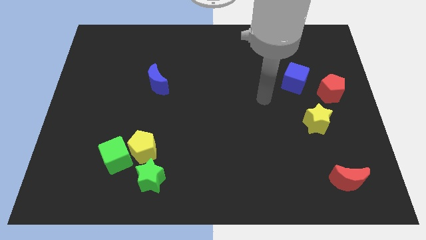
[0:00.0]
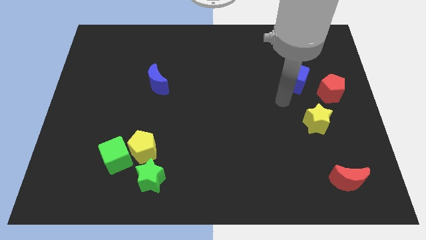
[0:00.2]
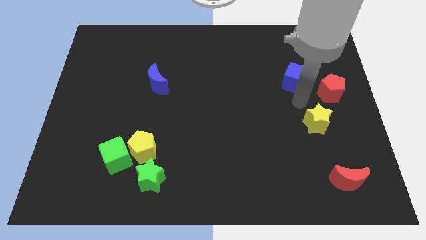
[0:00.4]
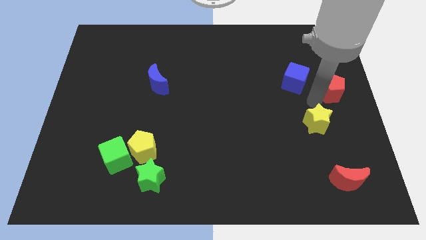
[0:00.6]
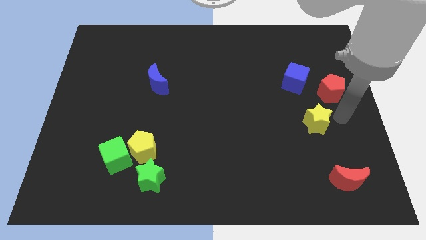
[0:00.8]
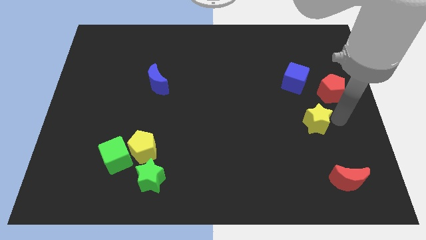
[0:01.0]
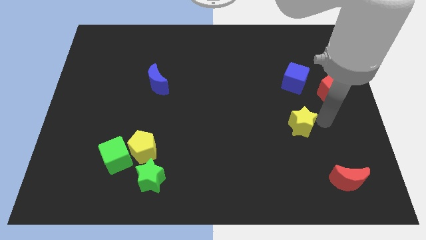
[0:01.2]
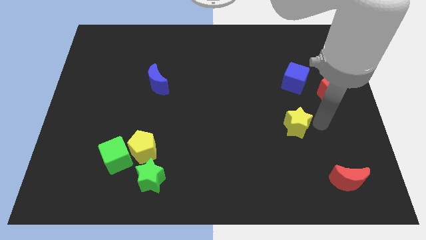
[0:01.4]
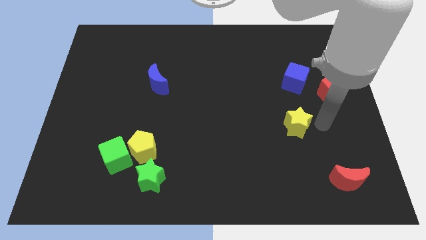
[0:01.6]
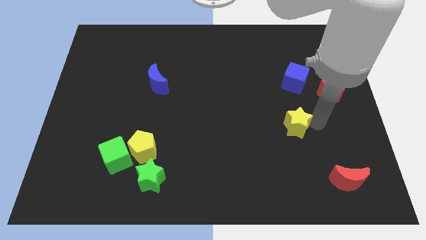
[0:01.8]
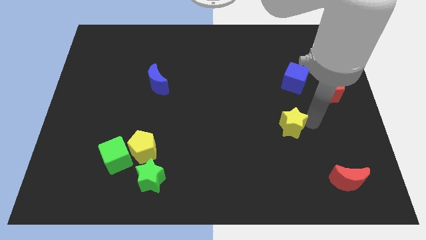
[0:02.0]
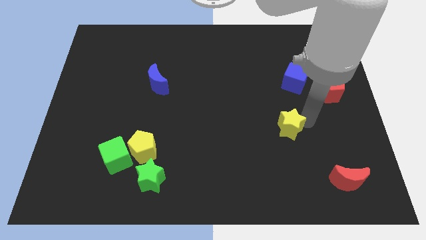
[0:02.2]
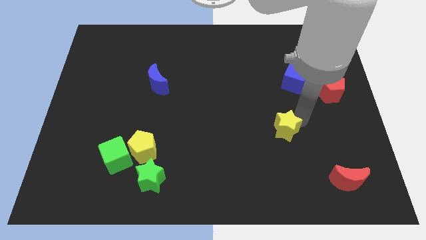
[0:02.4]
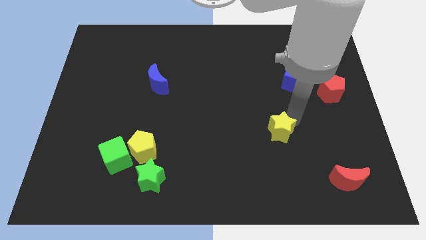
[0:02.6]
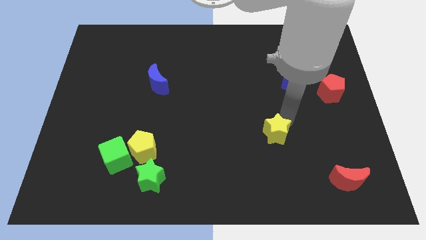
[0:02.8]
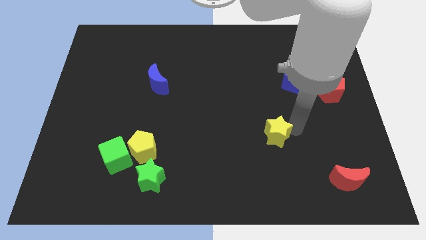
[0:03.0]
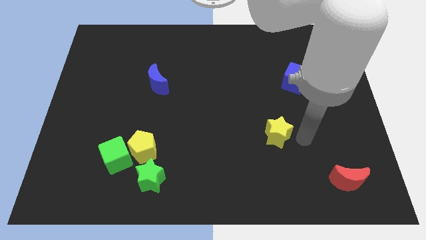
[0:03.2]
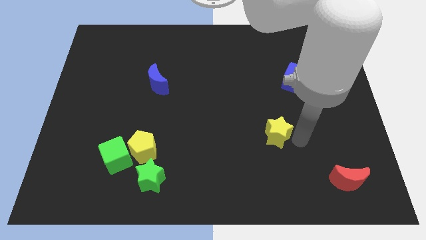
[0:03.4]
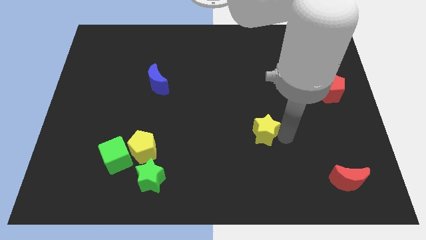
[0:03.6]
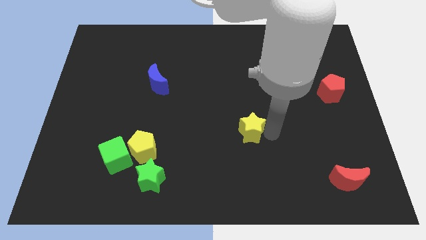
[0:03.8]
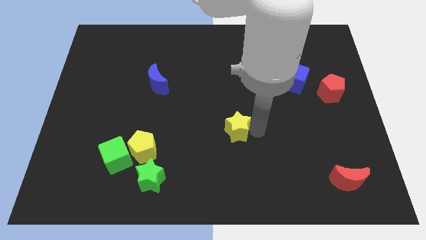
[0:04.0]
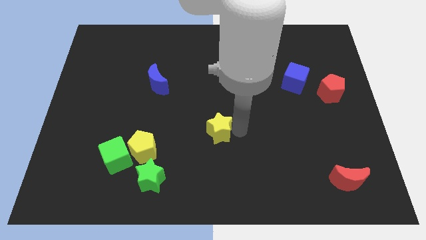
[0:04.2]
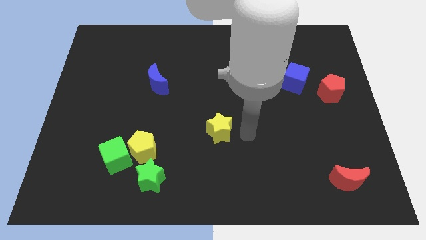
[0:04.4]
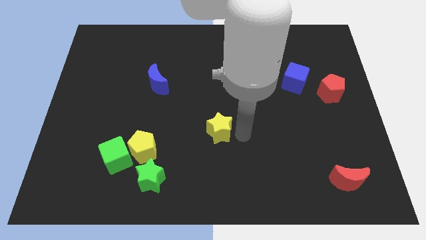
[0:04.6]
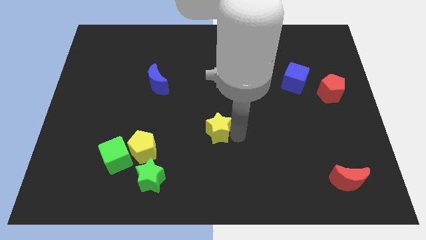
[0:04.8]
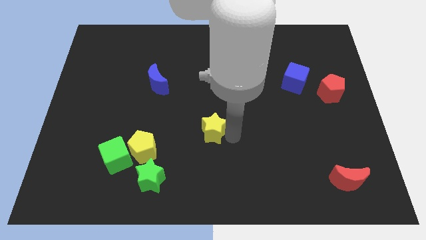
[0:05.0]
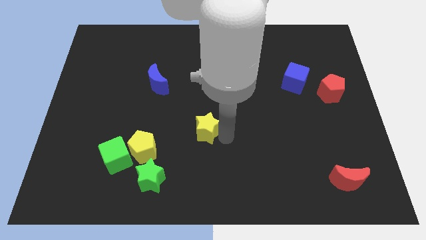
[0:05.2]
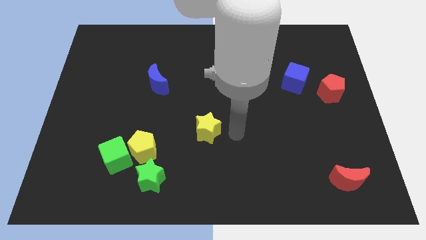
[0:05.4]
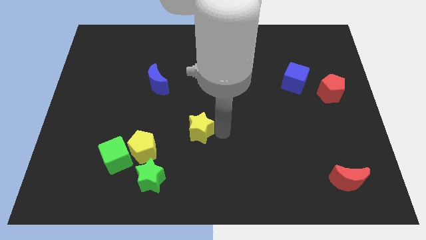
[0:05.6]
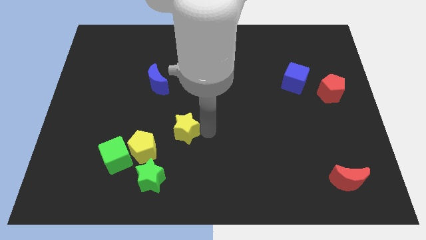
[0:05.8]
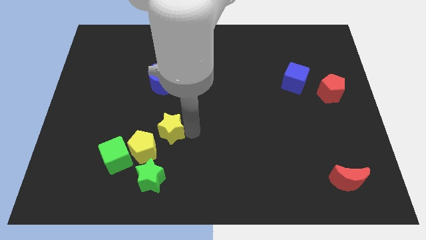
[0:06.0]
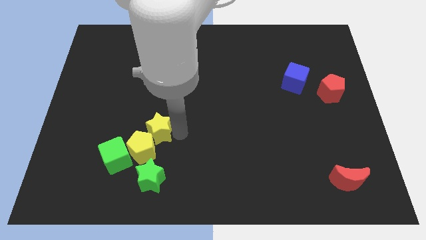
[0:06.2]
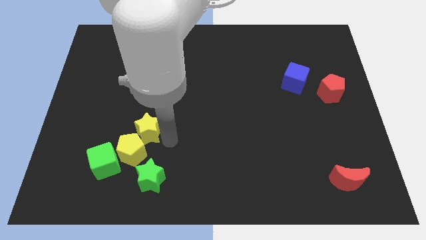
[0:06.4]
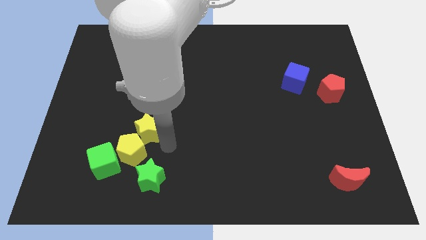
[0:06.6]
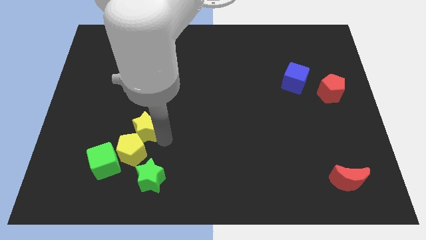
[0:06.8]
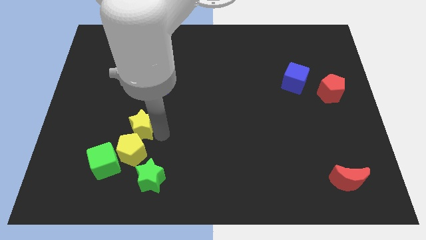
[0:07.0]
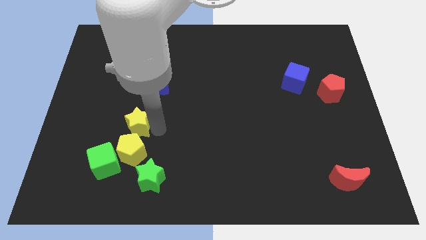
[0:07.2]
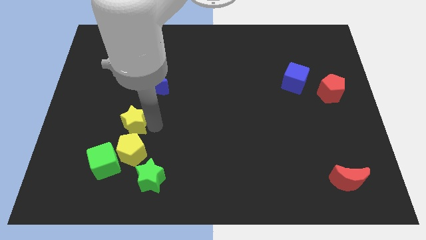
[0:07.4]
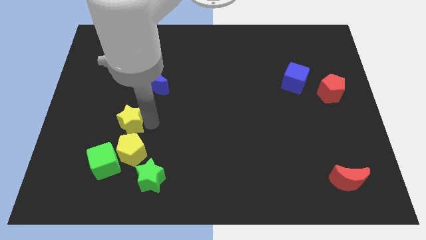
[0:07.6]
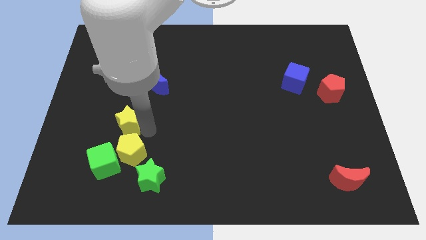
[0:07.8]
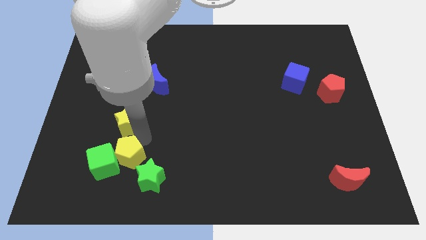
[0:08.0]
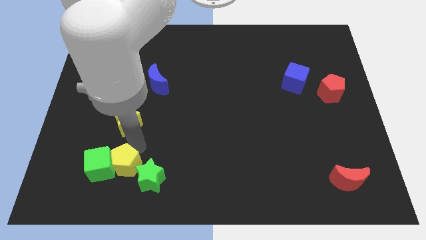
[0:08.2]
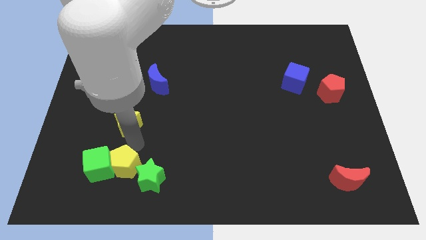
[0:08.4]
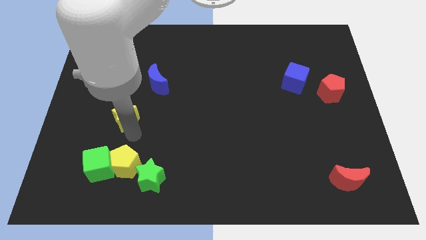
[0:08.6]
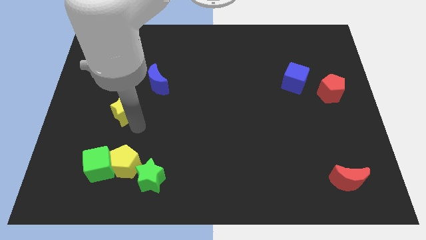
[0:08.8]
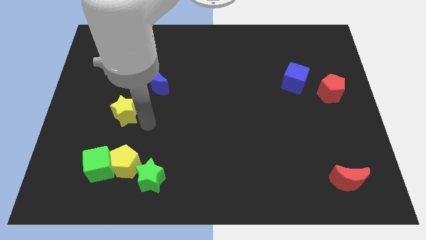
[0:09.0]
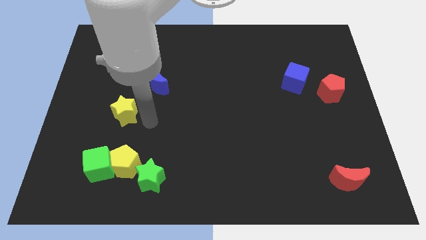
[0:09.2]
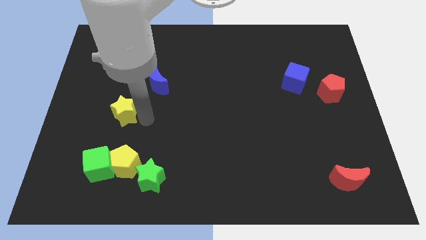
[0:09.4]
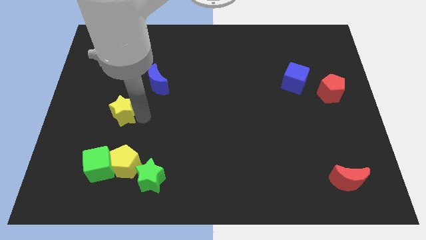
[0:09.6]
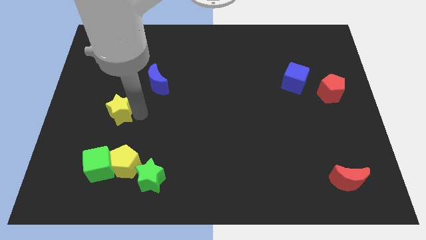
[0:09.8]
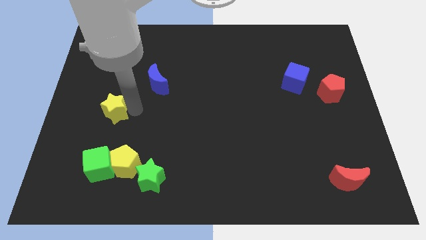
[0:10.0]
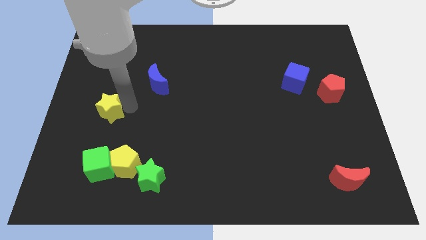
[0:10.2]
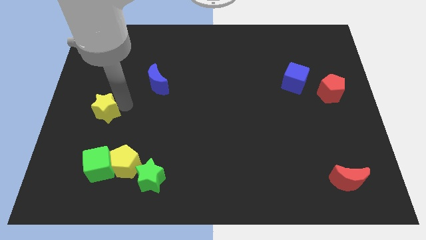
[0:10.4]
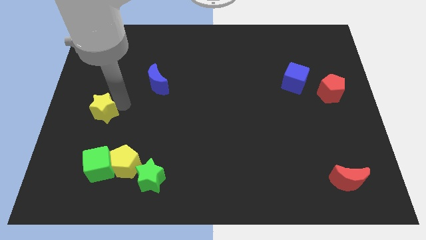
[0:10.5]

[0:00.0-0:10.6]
put the yellow star to the center left

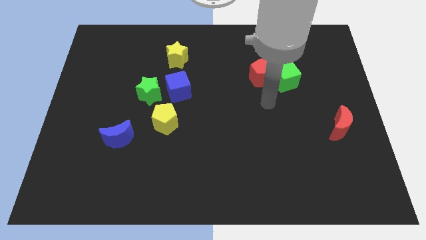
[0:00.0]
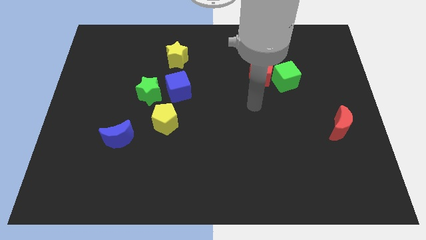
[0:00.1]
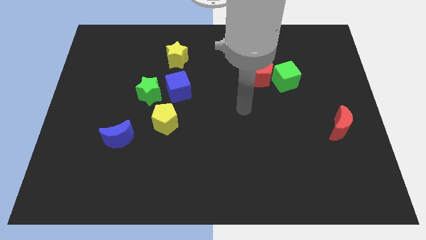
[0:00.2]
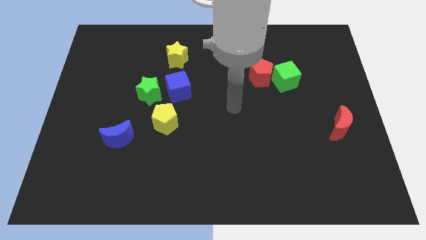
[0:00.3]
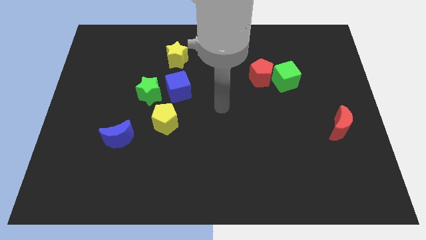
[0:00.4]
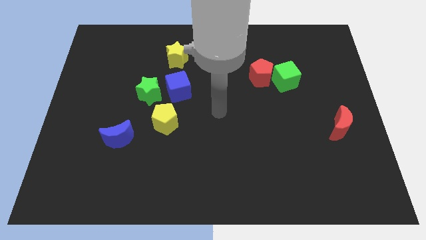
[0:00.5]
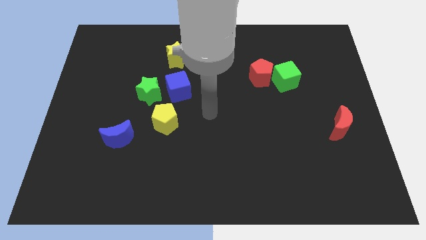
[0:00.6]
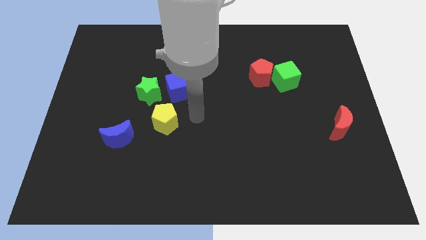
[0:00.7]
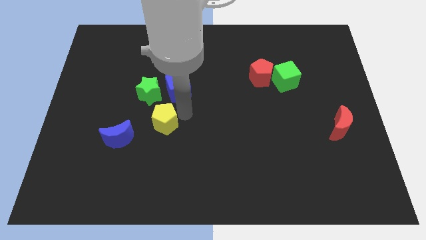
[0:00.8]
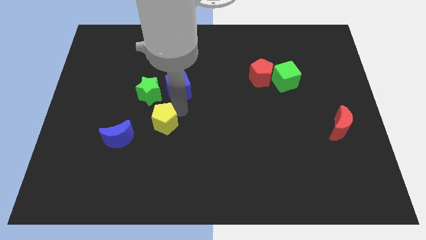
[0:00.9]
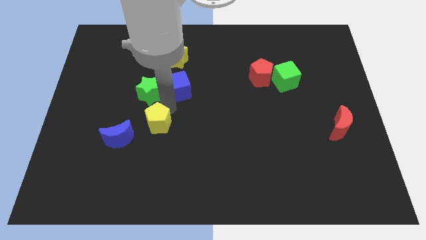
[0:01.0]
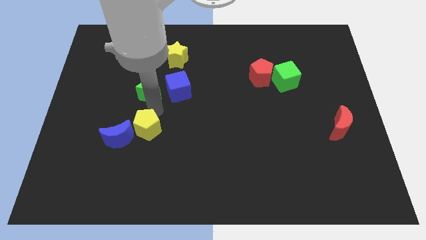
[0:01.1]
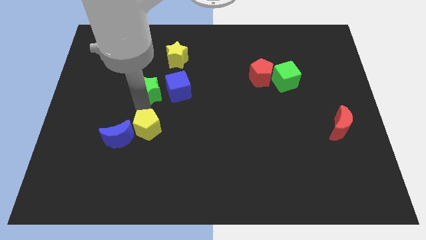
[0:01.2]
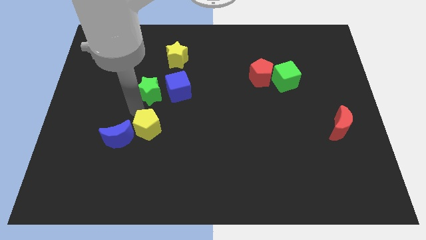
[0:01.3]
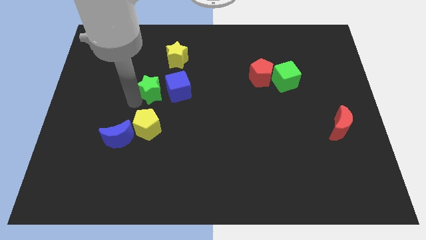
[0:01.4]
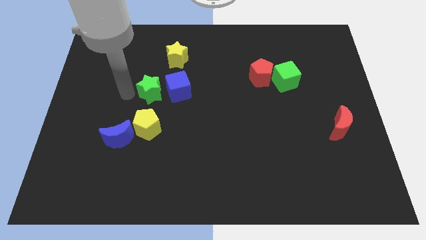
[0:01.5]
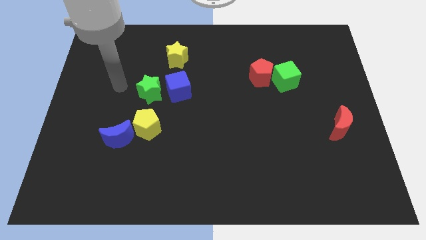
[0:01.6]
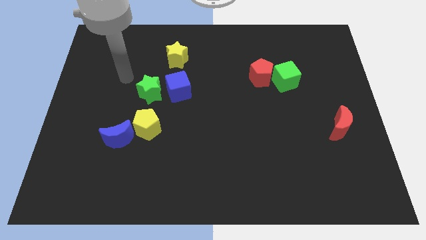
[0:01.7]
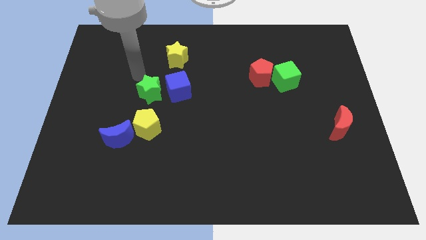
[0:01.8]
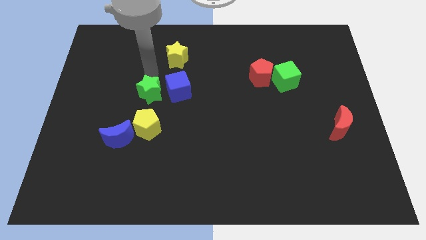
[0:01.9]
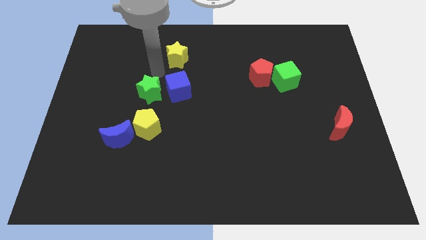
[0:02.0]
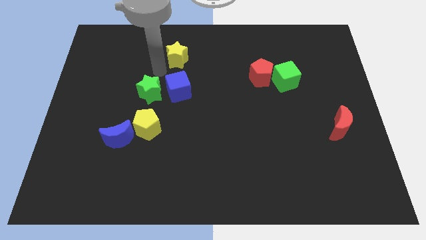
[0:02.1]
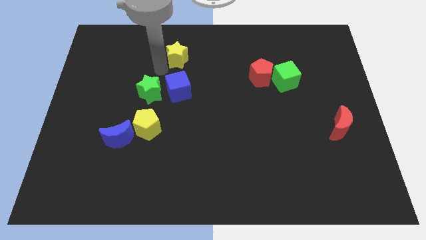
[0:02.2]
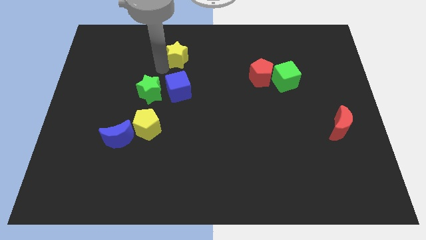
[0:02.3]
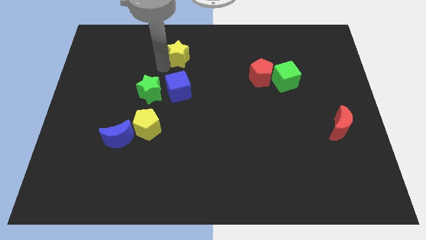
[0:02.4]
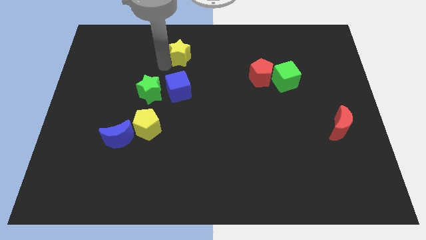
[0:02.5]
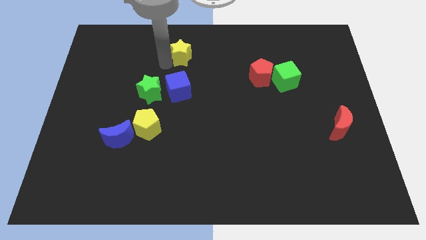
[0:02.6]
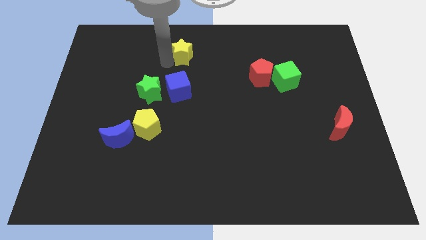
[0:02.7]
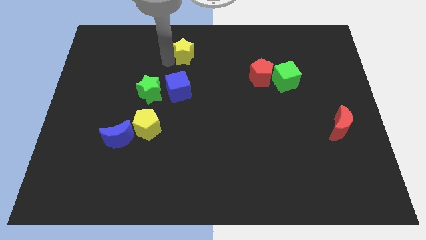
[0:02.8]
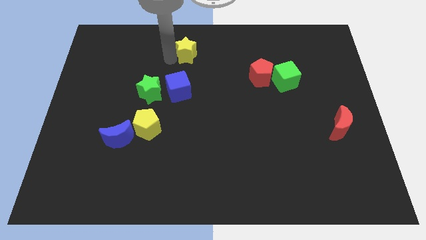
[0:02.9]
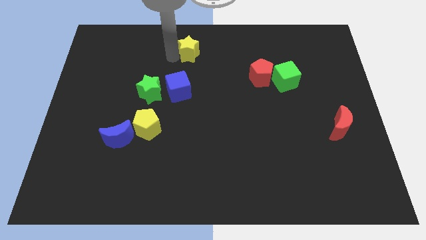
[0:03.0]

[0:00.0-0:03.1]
push the yellow star to the top side
